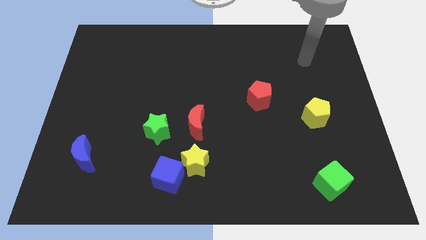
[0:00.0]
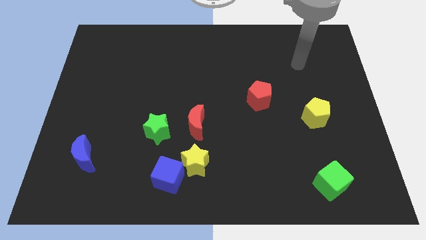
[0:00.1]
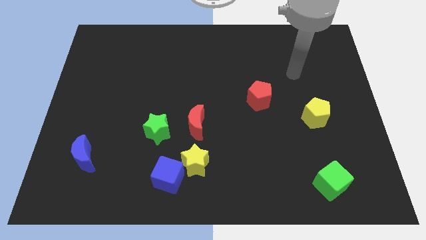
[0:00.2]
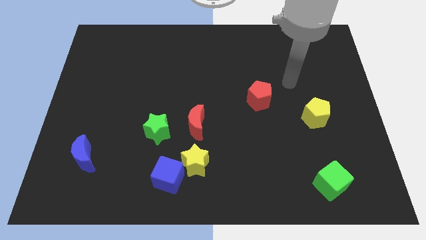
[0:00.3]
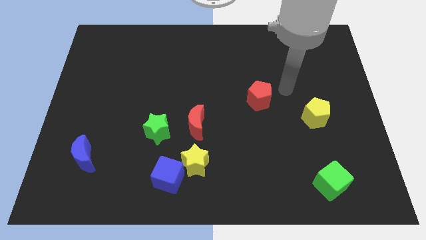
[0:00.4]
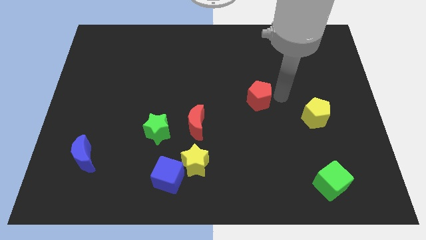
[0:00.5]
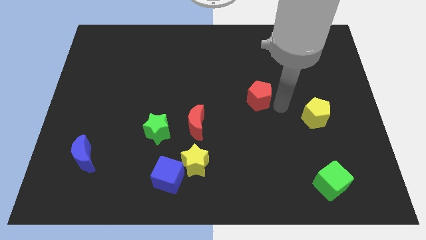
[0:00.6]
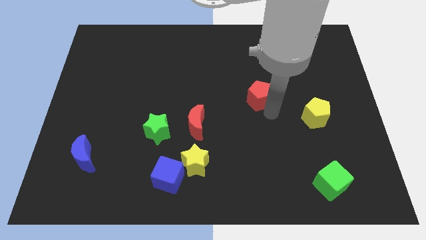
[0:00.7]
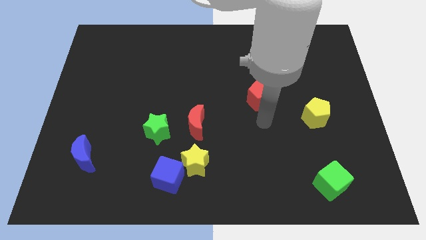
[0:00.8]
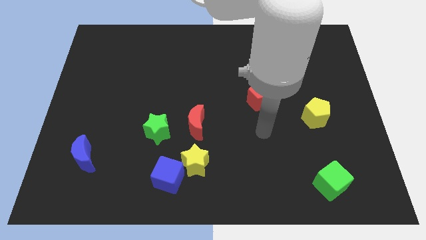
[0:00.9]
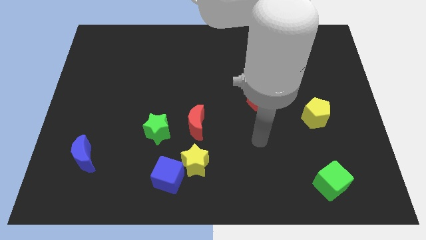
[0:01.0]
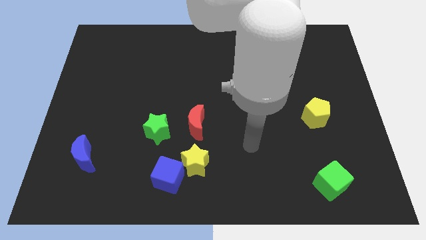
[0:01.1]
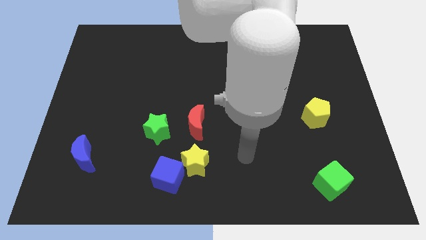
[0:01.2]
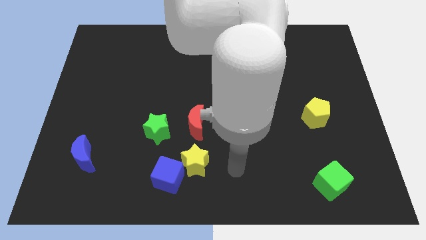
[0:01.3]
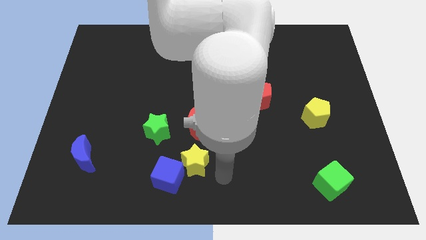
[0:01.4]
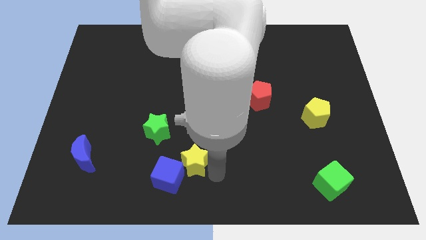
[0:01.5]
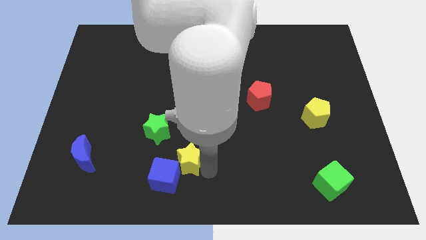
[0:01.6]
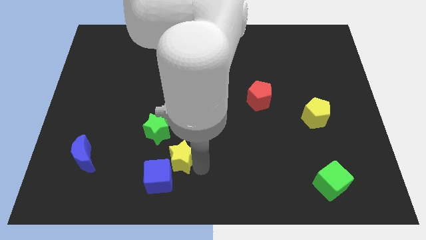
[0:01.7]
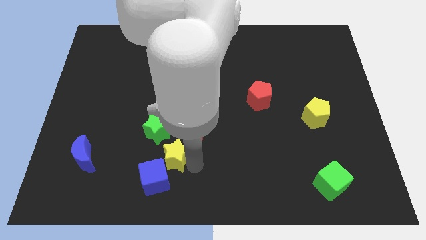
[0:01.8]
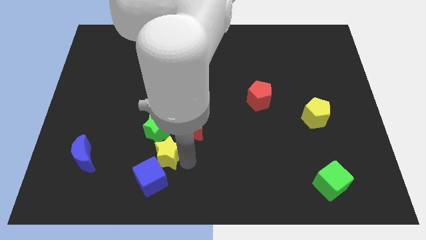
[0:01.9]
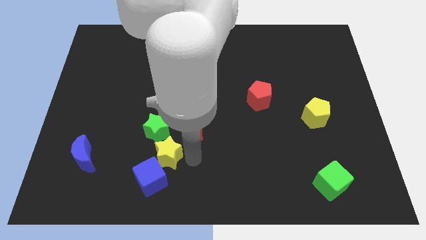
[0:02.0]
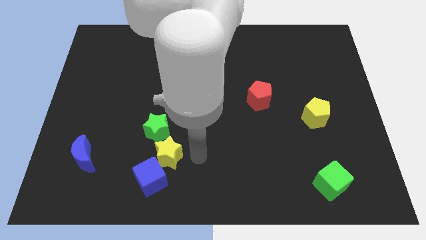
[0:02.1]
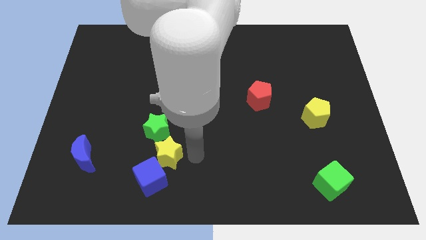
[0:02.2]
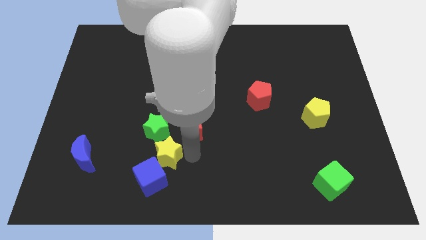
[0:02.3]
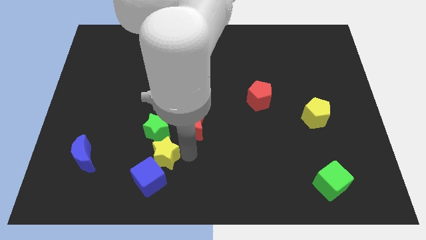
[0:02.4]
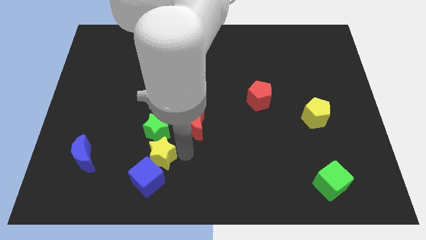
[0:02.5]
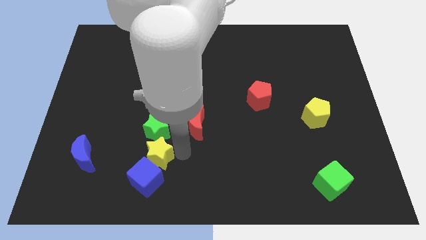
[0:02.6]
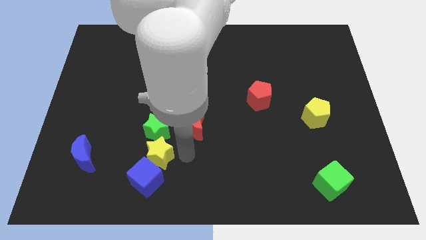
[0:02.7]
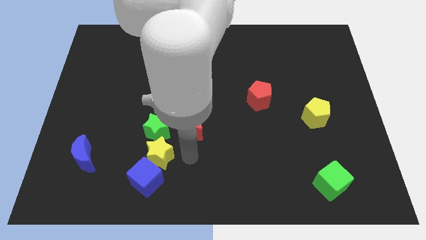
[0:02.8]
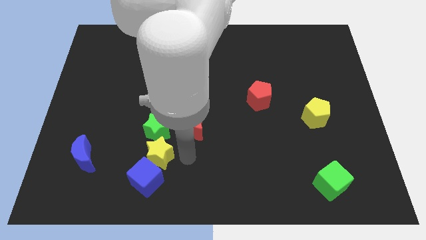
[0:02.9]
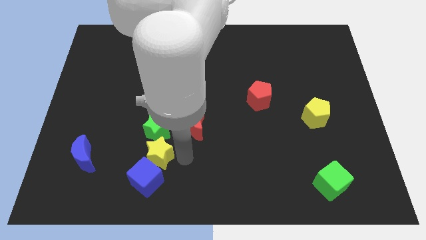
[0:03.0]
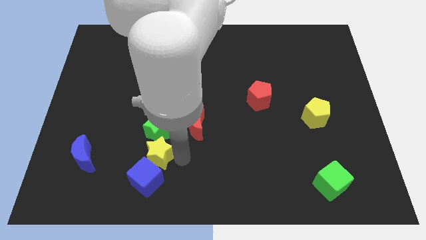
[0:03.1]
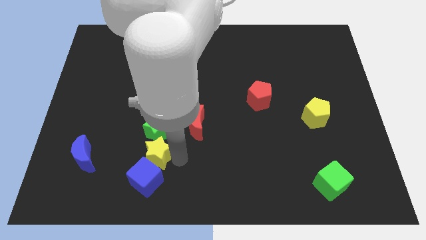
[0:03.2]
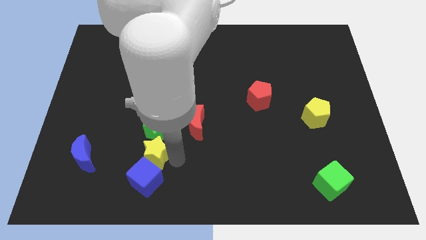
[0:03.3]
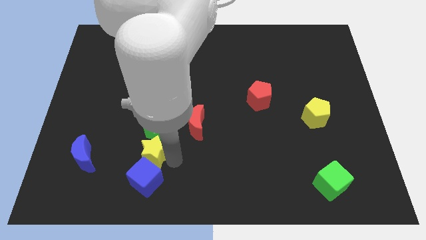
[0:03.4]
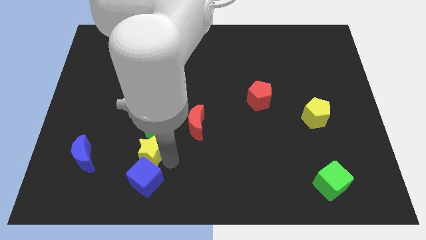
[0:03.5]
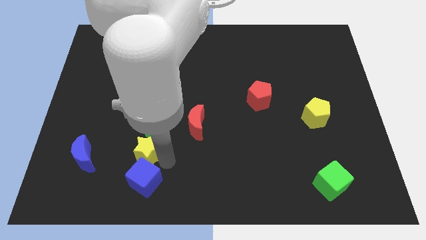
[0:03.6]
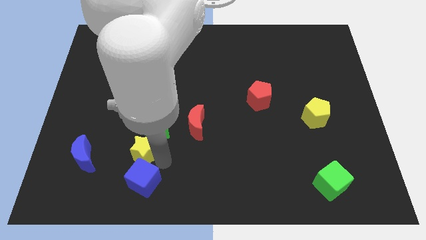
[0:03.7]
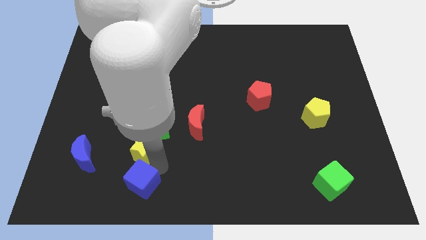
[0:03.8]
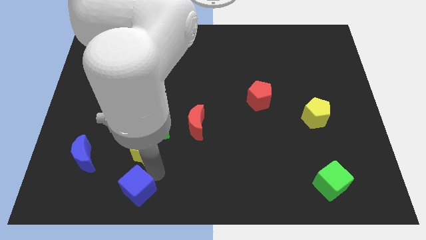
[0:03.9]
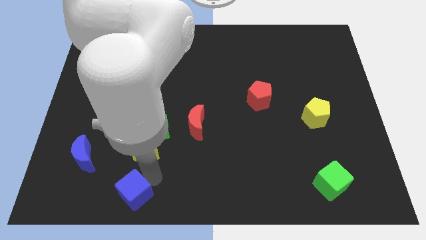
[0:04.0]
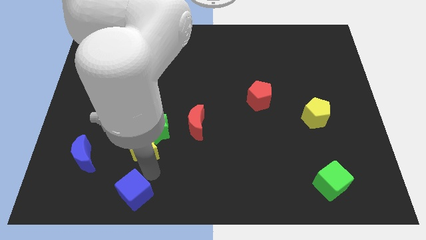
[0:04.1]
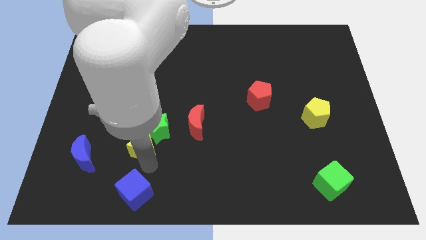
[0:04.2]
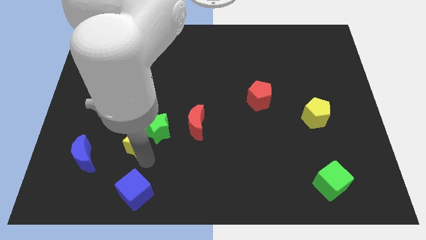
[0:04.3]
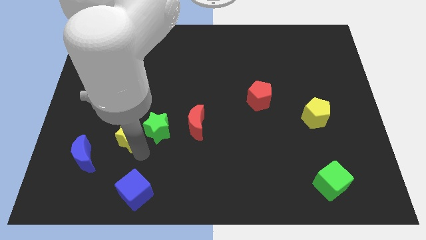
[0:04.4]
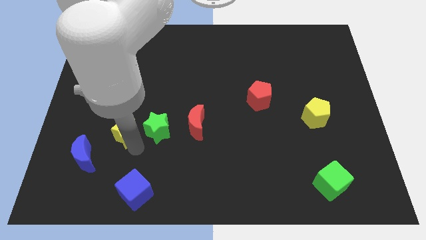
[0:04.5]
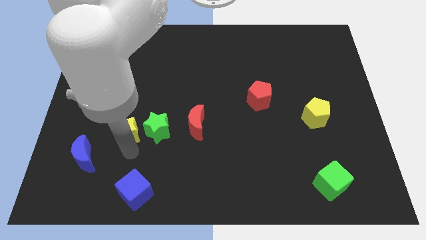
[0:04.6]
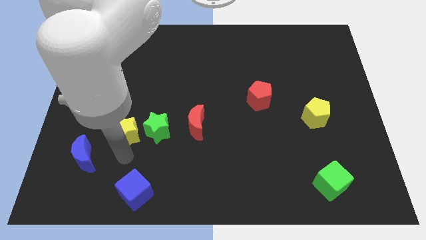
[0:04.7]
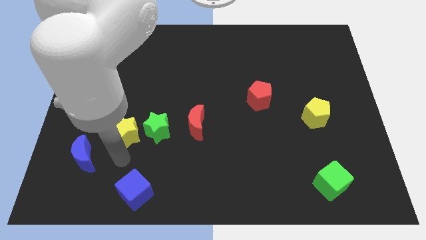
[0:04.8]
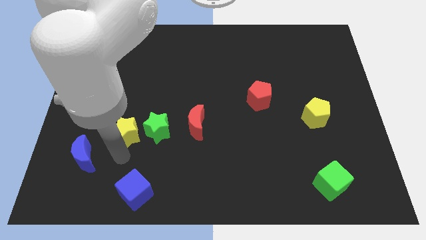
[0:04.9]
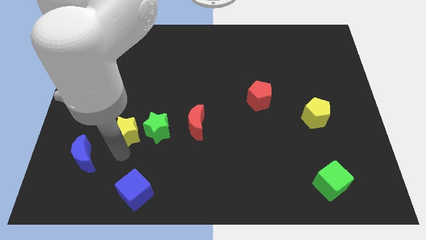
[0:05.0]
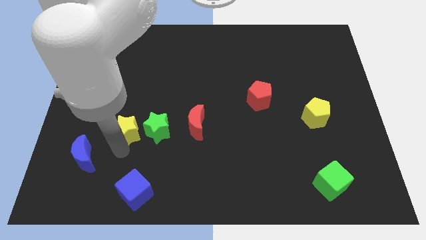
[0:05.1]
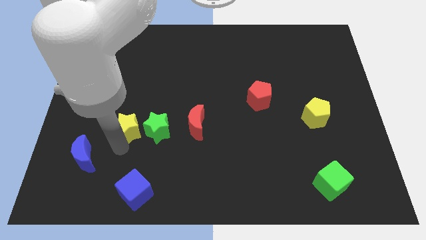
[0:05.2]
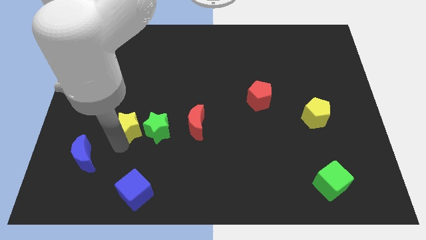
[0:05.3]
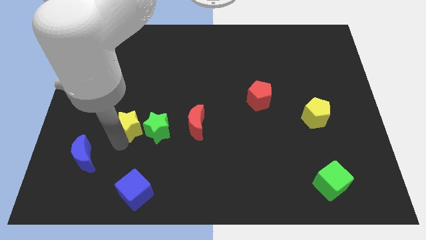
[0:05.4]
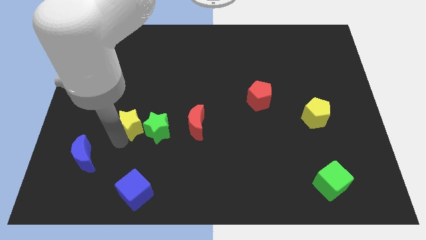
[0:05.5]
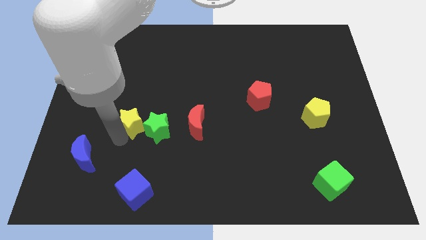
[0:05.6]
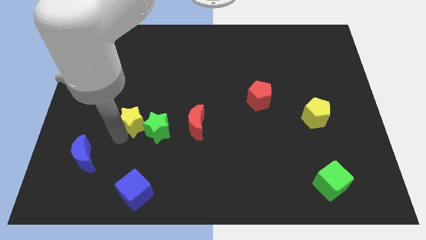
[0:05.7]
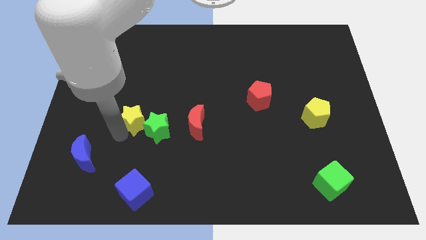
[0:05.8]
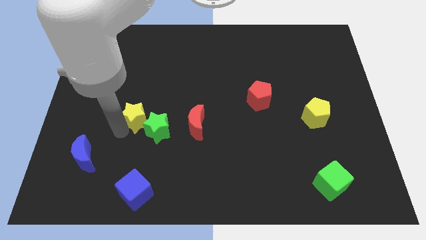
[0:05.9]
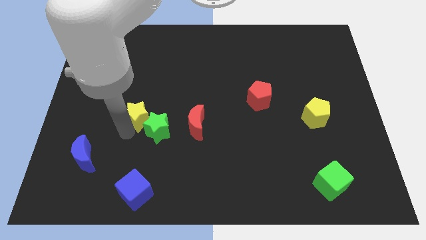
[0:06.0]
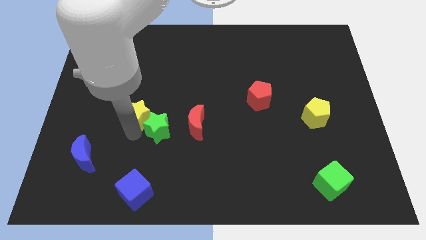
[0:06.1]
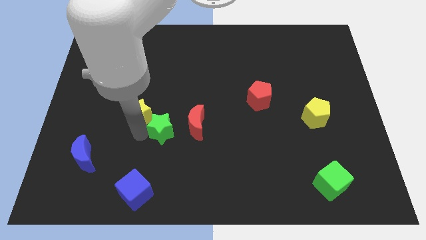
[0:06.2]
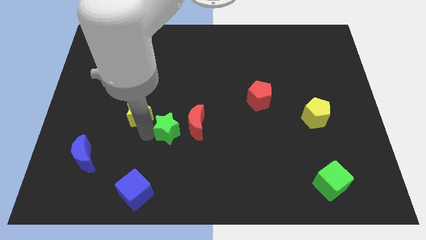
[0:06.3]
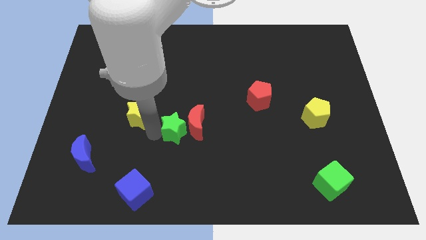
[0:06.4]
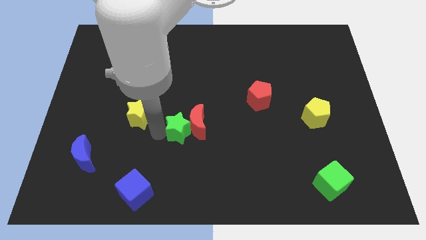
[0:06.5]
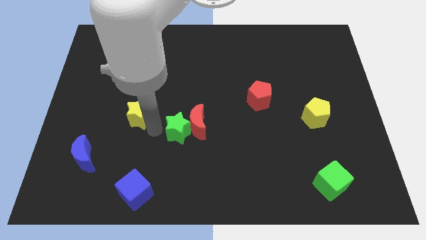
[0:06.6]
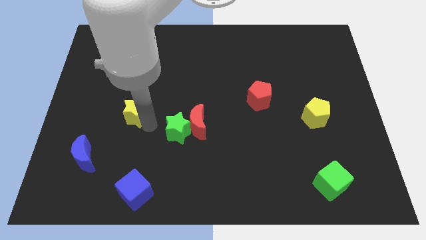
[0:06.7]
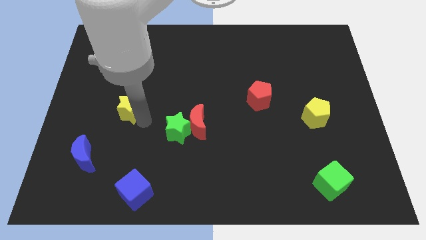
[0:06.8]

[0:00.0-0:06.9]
slide the yellow star upwards and left diagonally

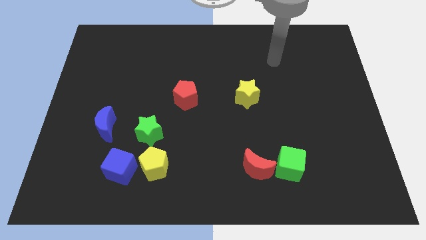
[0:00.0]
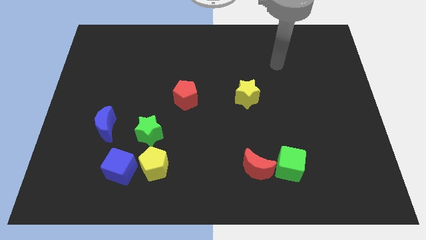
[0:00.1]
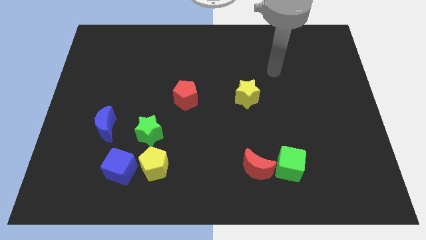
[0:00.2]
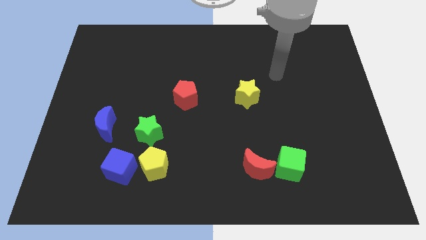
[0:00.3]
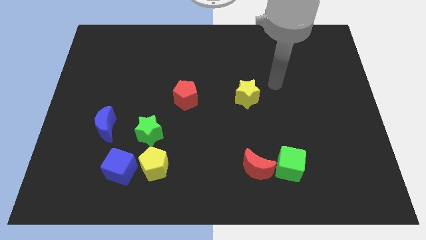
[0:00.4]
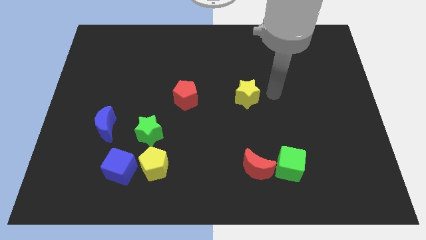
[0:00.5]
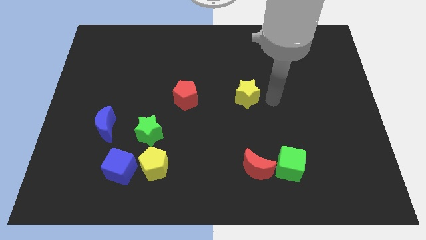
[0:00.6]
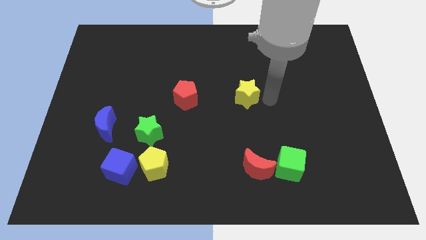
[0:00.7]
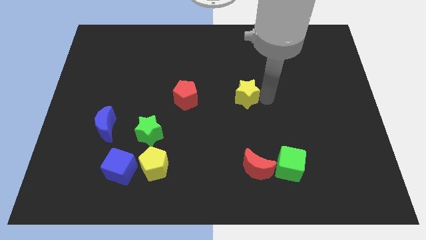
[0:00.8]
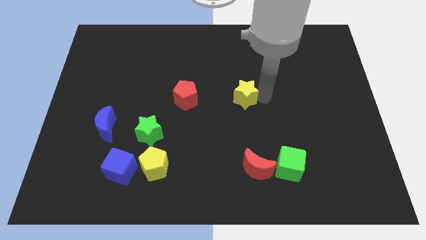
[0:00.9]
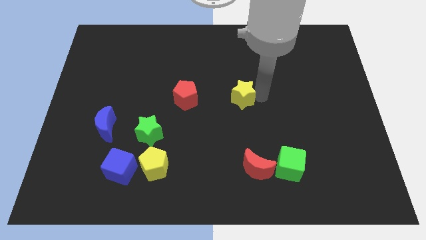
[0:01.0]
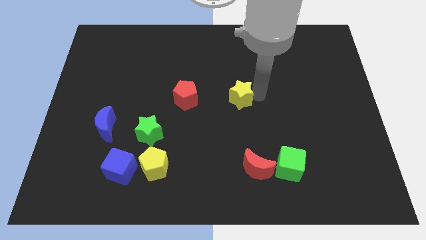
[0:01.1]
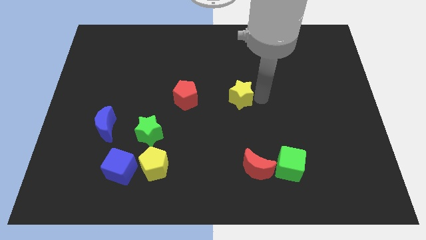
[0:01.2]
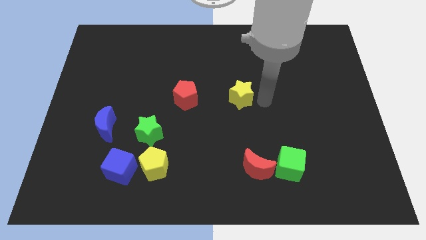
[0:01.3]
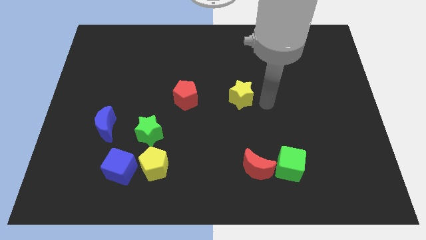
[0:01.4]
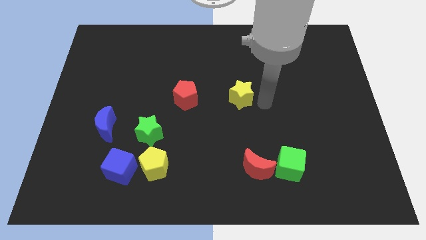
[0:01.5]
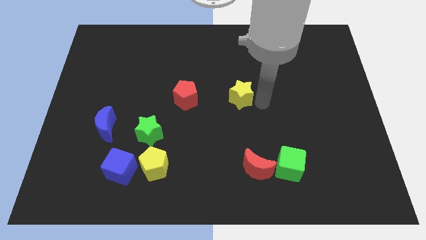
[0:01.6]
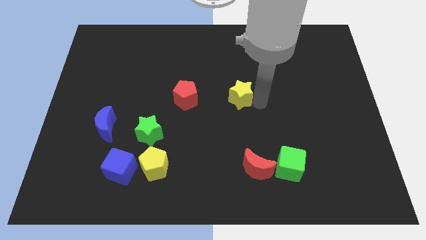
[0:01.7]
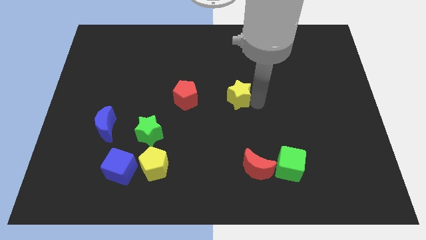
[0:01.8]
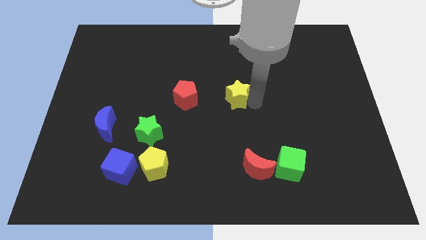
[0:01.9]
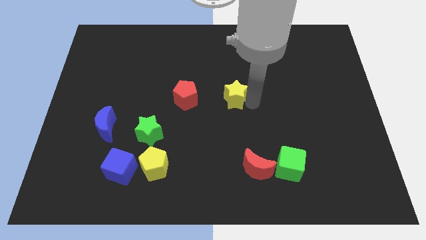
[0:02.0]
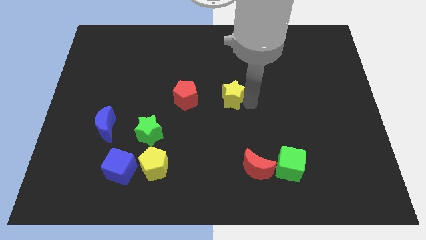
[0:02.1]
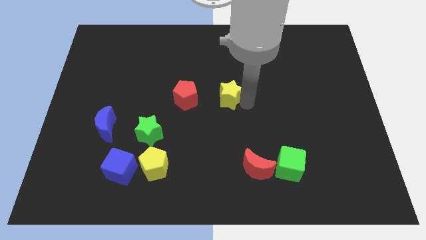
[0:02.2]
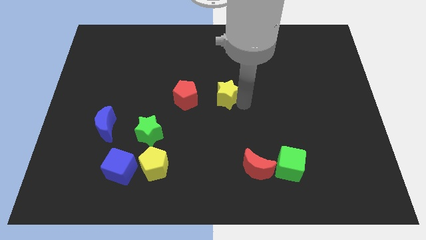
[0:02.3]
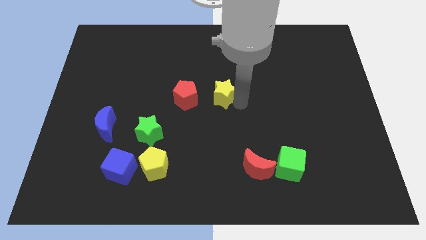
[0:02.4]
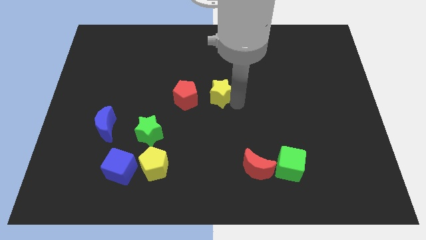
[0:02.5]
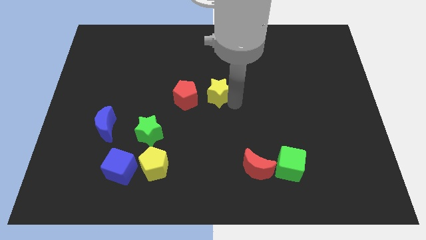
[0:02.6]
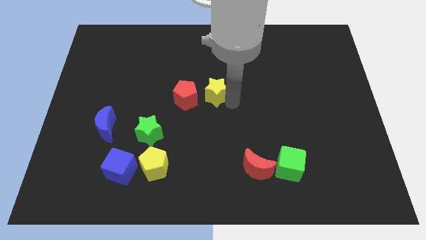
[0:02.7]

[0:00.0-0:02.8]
move the yellow star a little to the left
